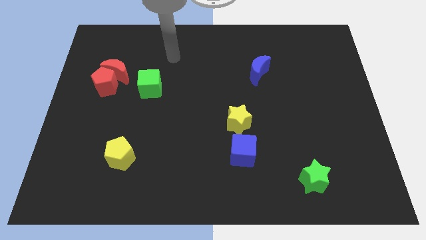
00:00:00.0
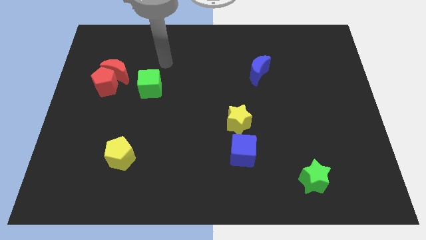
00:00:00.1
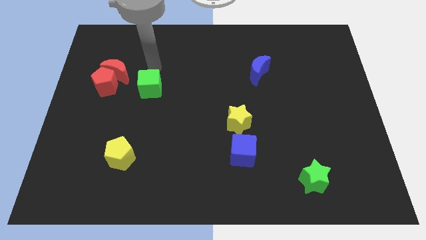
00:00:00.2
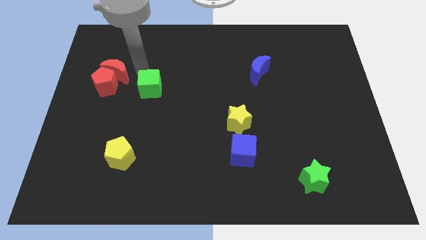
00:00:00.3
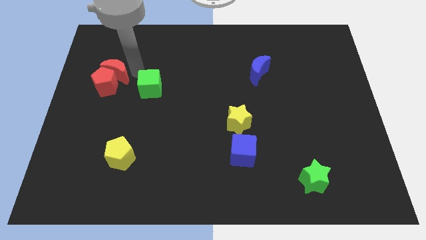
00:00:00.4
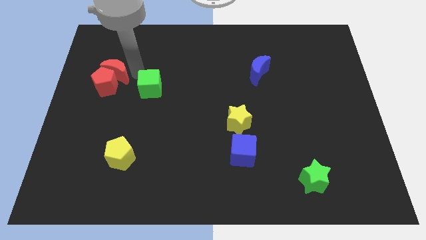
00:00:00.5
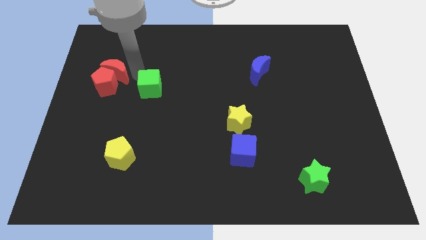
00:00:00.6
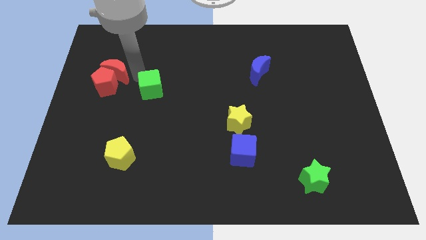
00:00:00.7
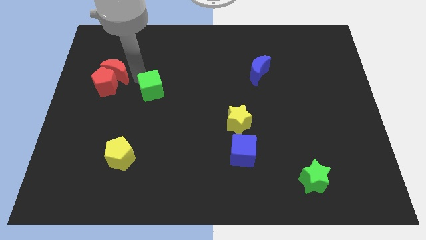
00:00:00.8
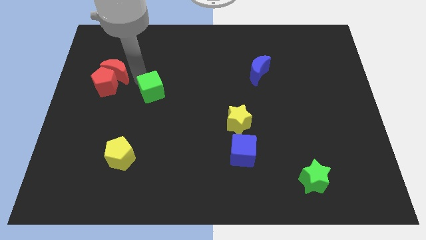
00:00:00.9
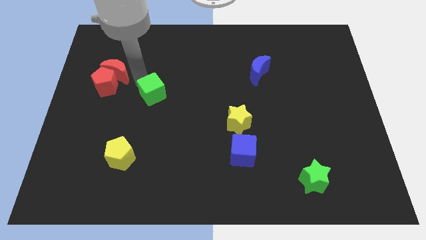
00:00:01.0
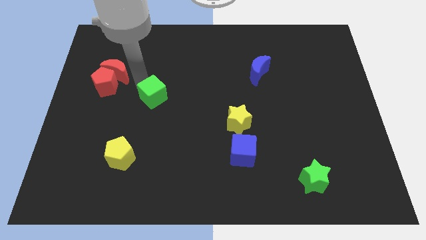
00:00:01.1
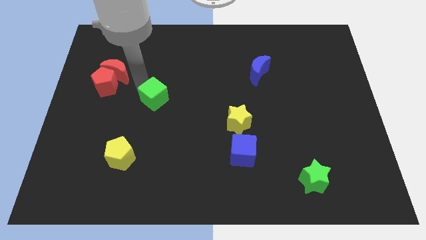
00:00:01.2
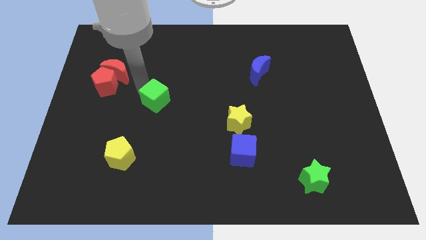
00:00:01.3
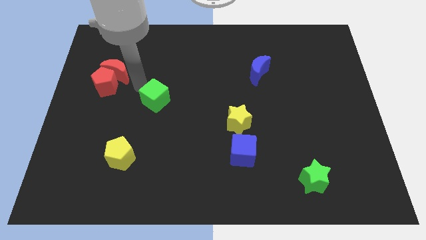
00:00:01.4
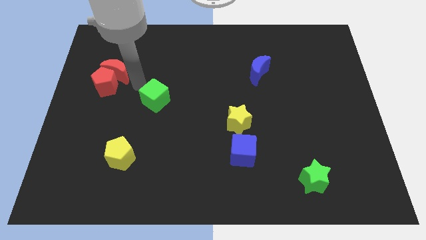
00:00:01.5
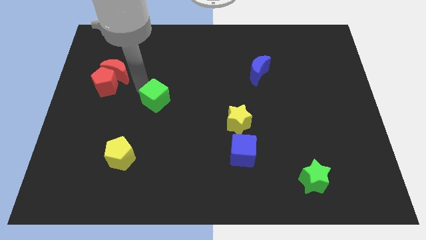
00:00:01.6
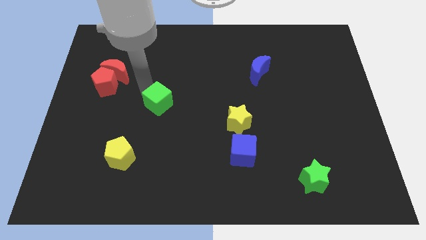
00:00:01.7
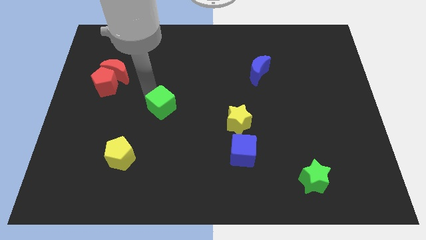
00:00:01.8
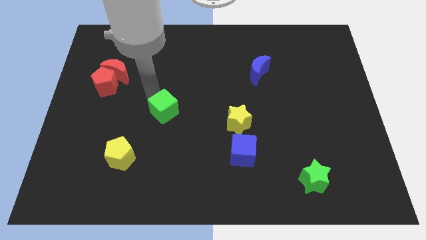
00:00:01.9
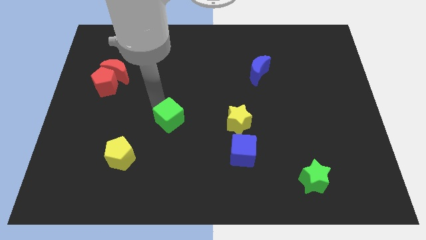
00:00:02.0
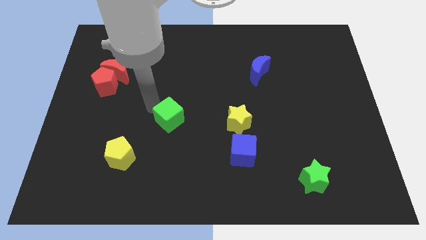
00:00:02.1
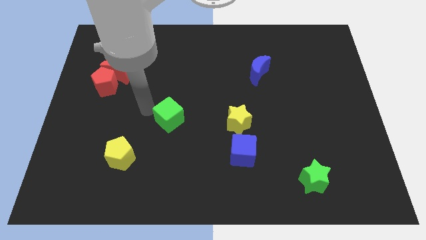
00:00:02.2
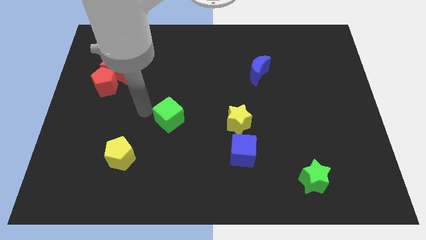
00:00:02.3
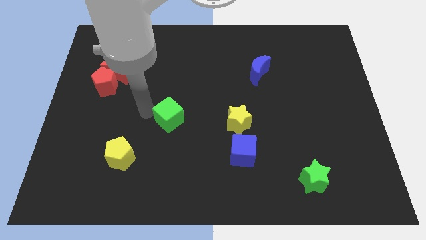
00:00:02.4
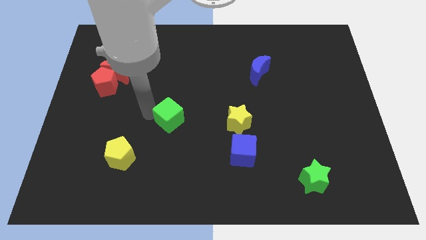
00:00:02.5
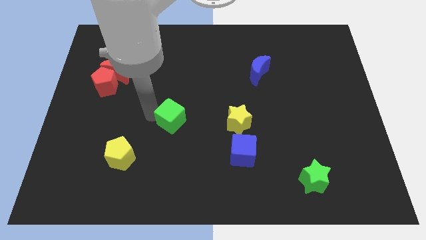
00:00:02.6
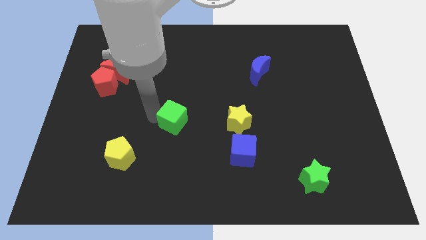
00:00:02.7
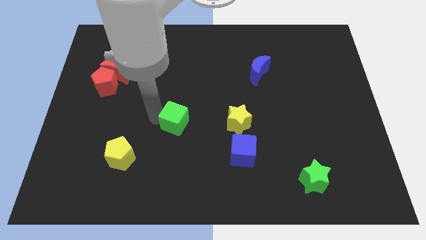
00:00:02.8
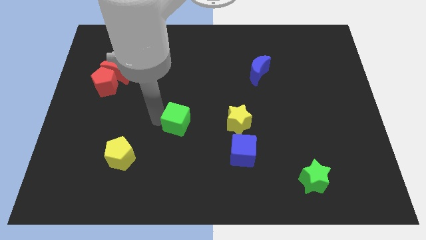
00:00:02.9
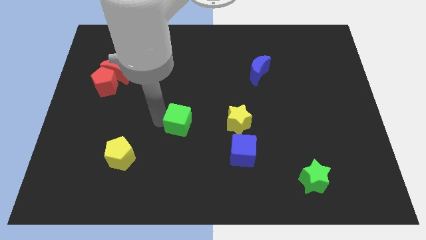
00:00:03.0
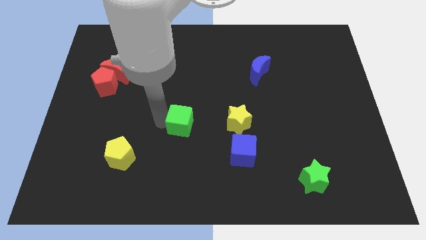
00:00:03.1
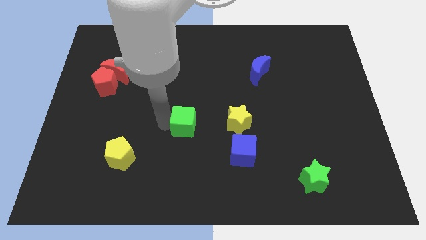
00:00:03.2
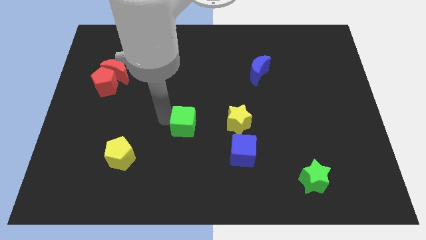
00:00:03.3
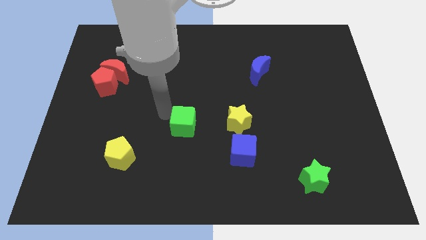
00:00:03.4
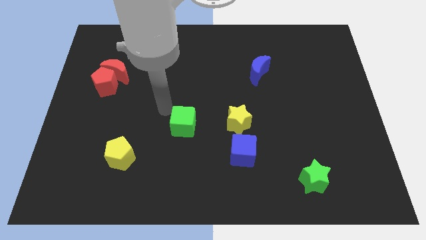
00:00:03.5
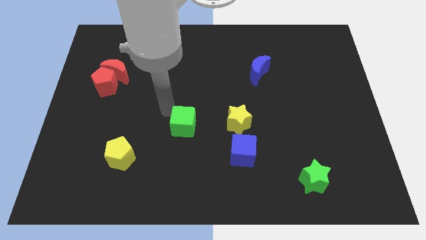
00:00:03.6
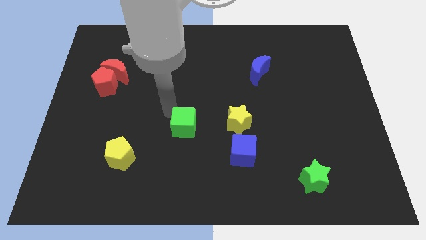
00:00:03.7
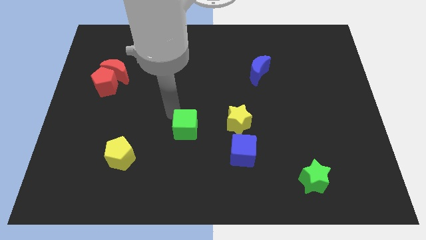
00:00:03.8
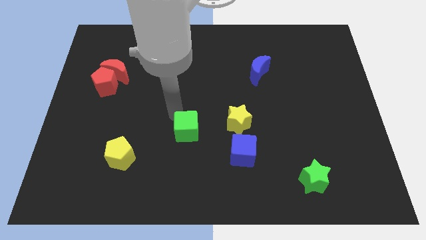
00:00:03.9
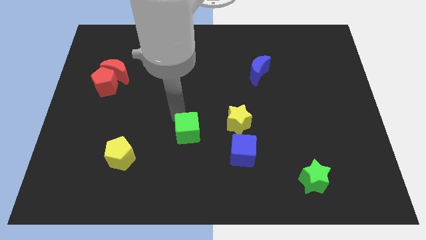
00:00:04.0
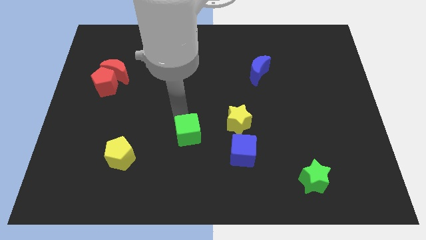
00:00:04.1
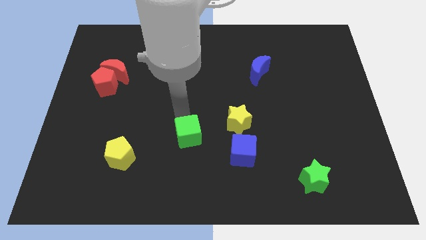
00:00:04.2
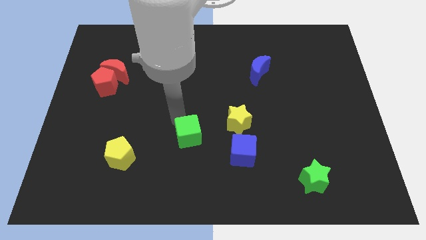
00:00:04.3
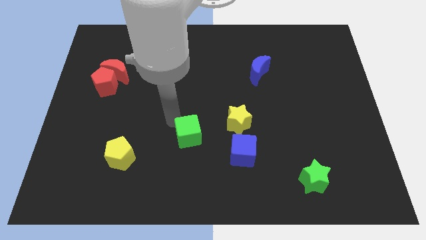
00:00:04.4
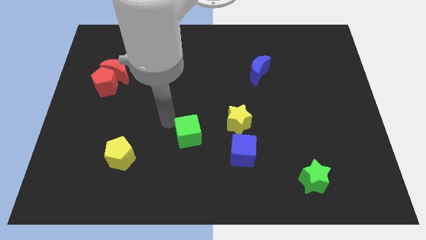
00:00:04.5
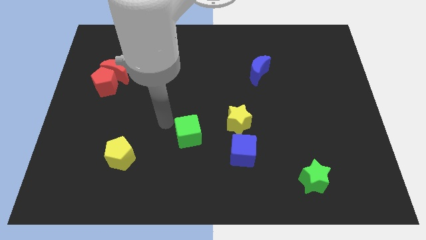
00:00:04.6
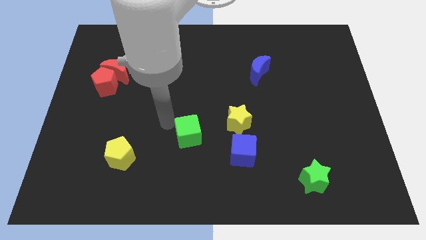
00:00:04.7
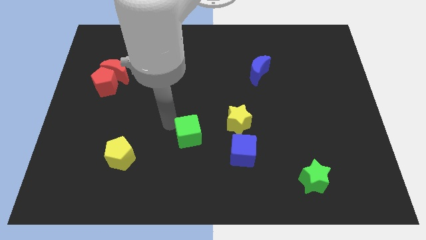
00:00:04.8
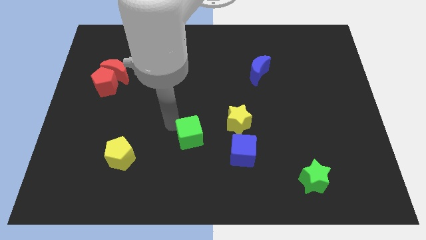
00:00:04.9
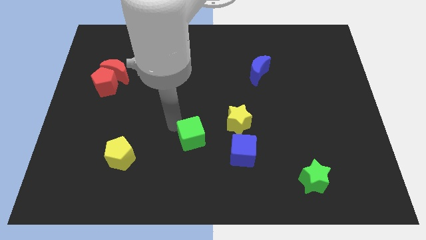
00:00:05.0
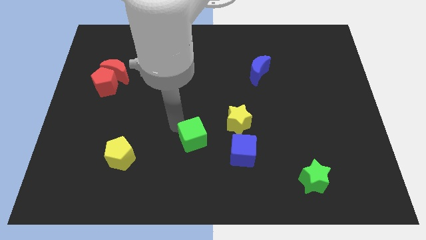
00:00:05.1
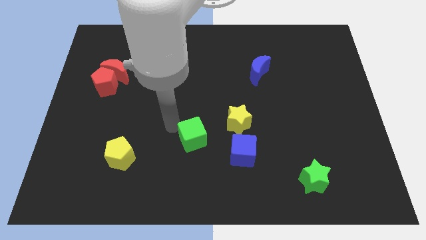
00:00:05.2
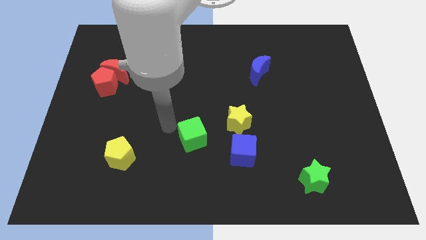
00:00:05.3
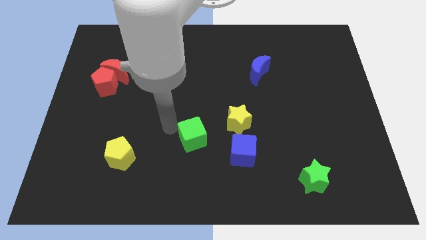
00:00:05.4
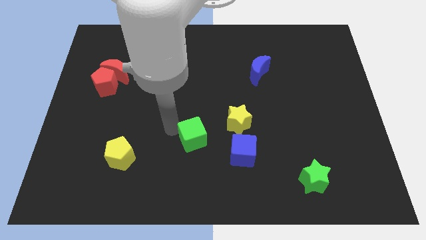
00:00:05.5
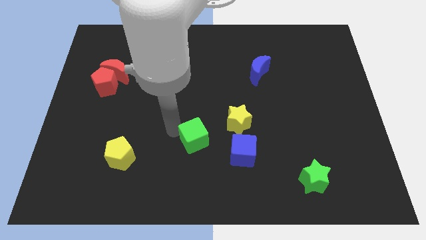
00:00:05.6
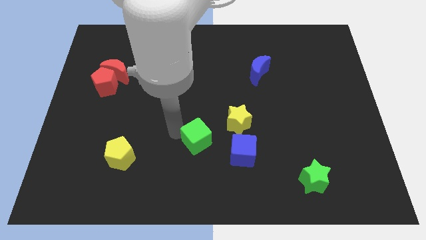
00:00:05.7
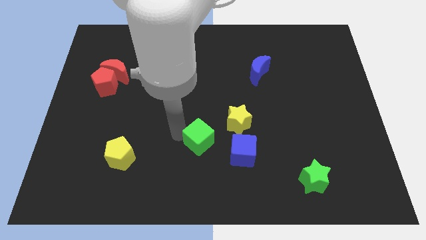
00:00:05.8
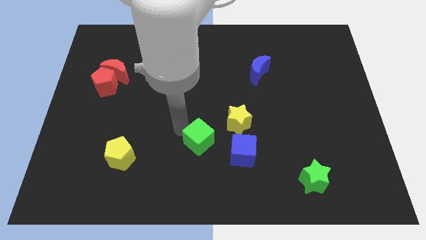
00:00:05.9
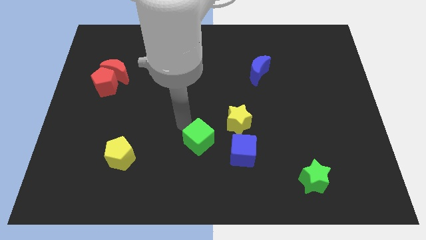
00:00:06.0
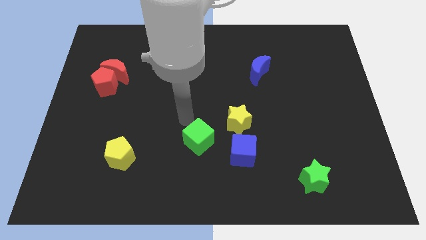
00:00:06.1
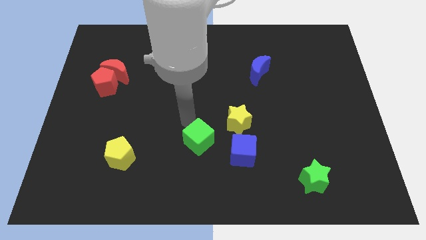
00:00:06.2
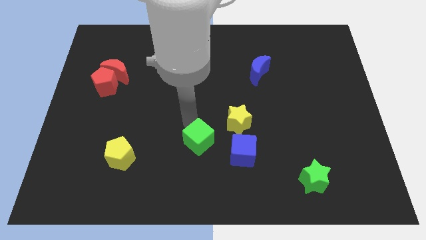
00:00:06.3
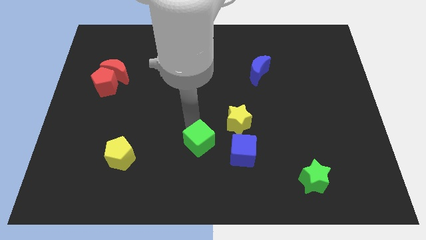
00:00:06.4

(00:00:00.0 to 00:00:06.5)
move the green cube downwards and then to the right

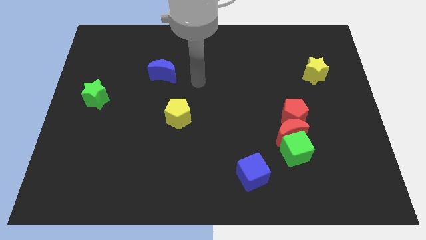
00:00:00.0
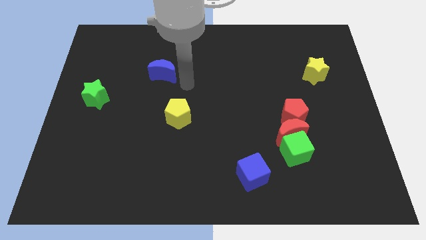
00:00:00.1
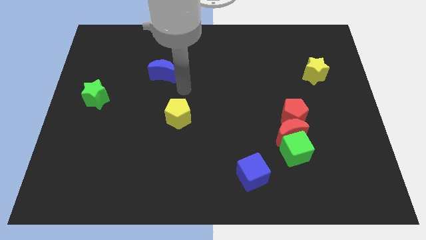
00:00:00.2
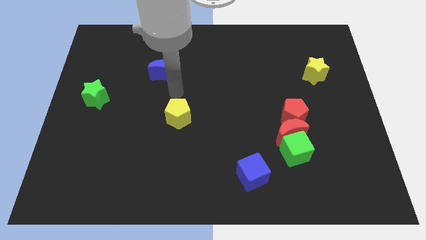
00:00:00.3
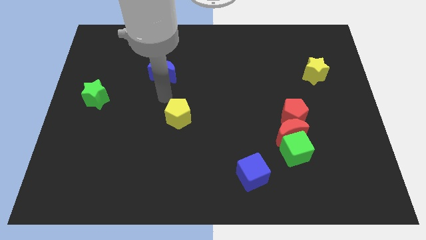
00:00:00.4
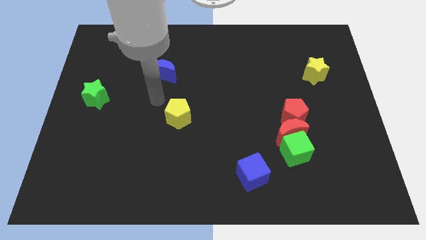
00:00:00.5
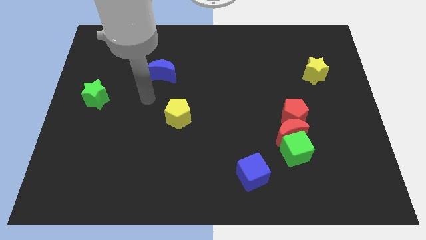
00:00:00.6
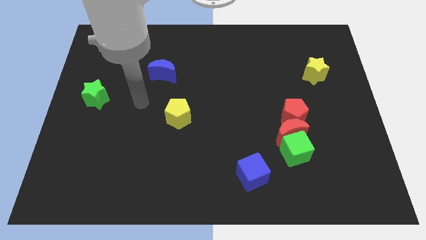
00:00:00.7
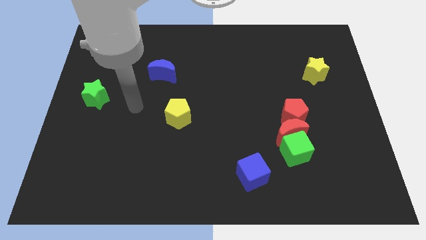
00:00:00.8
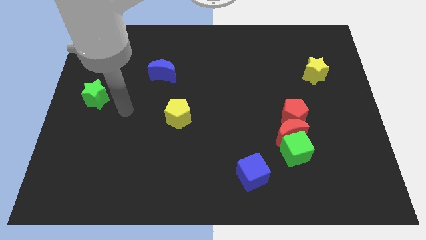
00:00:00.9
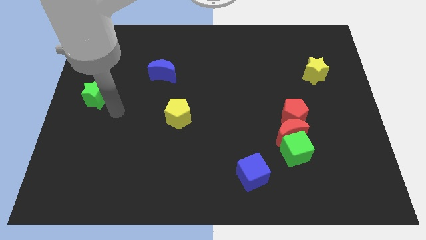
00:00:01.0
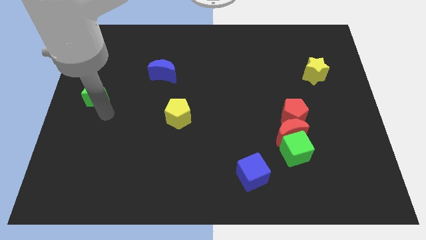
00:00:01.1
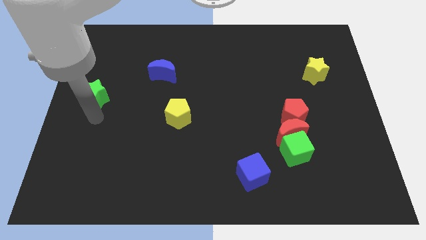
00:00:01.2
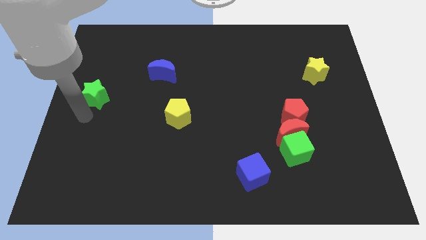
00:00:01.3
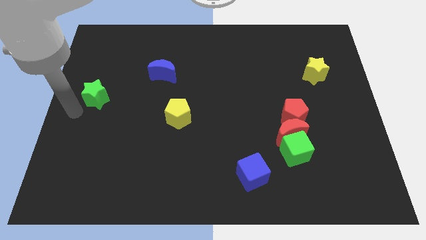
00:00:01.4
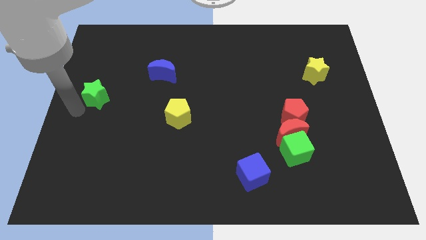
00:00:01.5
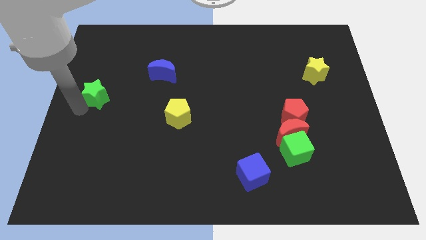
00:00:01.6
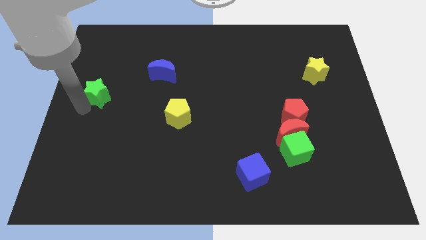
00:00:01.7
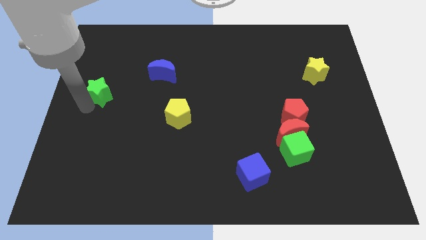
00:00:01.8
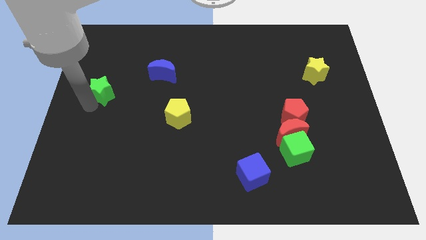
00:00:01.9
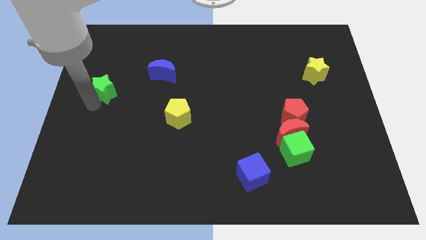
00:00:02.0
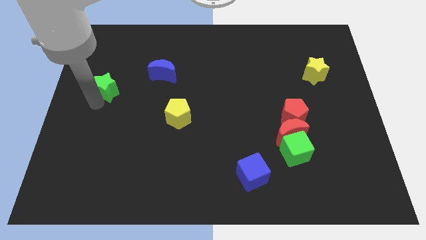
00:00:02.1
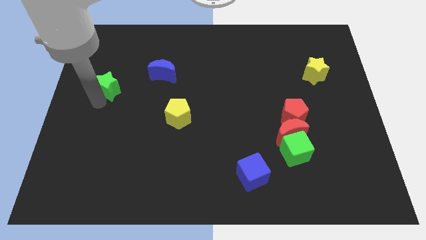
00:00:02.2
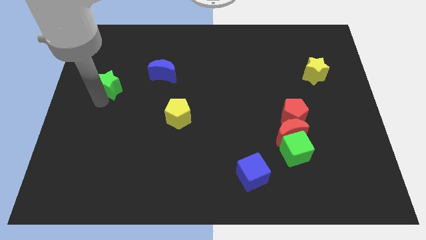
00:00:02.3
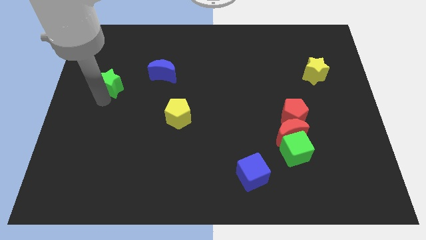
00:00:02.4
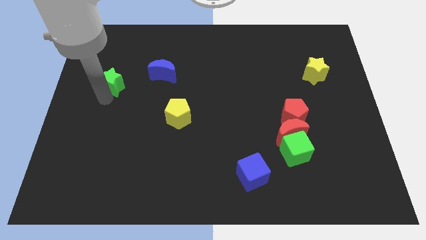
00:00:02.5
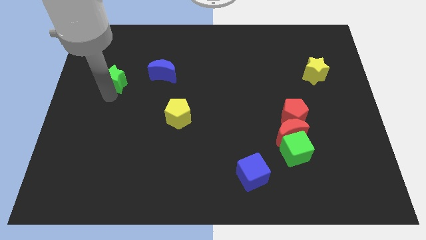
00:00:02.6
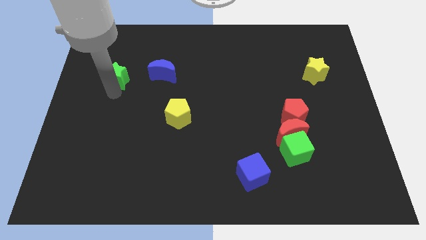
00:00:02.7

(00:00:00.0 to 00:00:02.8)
slide the green star a little bit up and to the right
